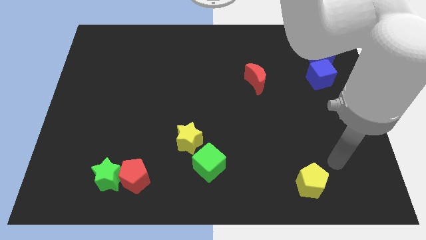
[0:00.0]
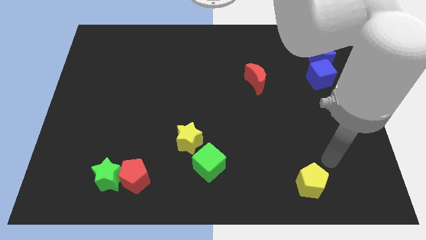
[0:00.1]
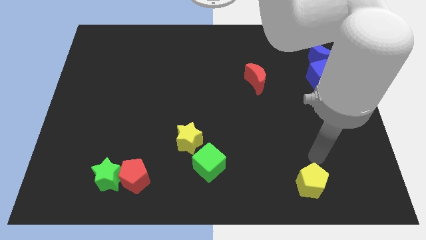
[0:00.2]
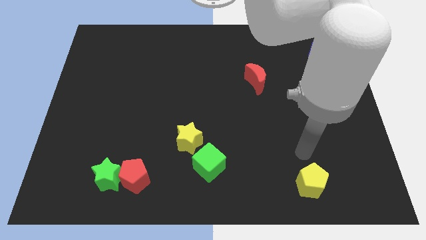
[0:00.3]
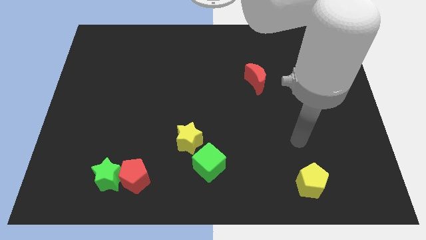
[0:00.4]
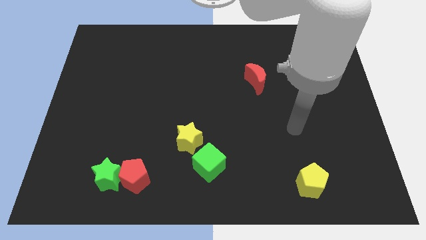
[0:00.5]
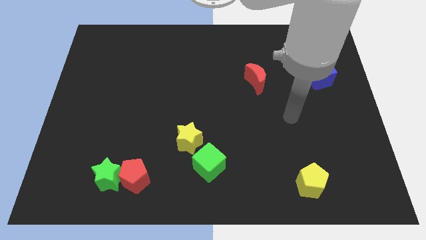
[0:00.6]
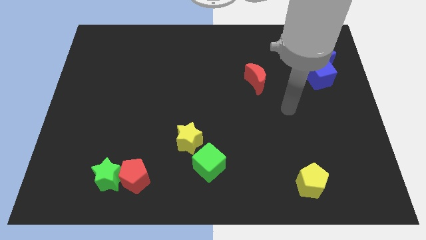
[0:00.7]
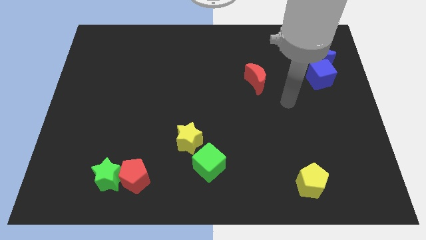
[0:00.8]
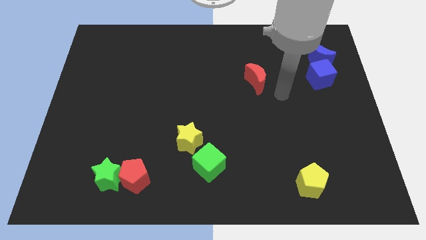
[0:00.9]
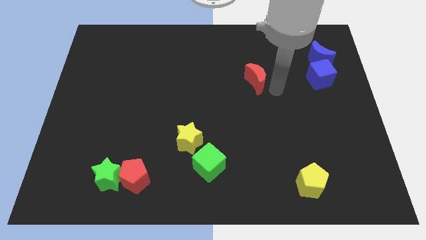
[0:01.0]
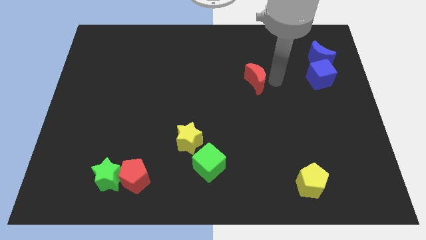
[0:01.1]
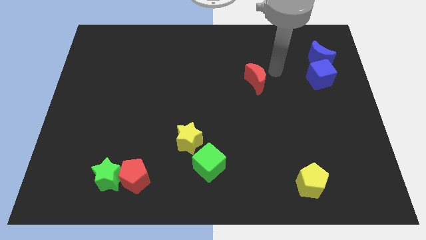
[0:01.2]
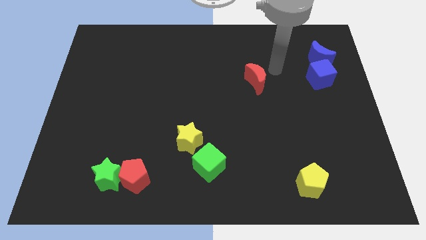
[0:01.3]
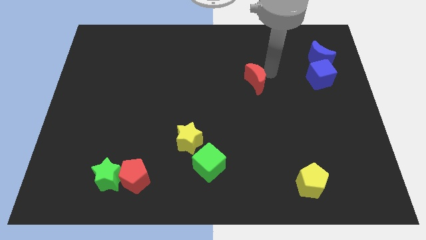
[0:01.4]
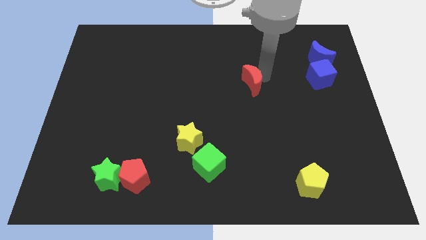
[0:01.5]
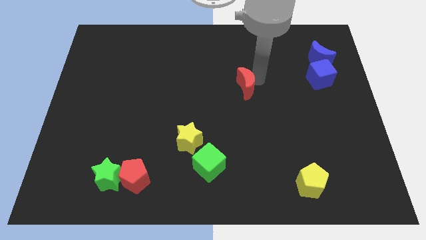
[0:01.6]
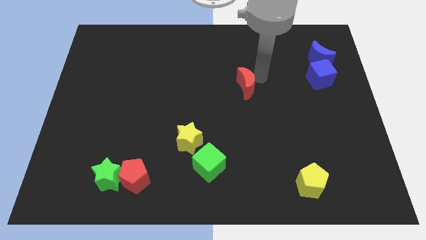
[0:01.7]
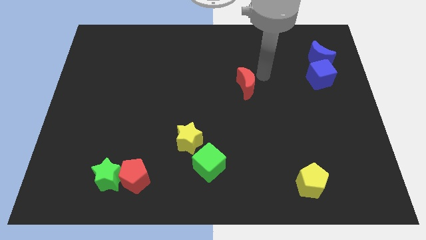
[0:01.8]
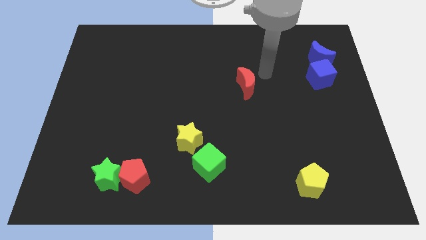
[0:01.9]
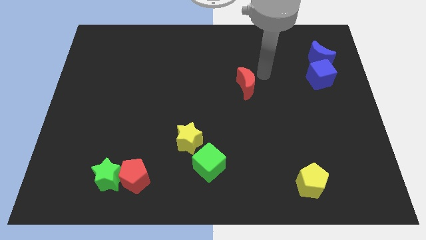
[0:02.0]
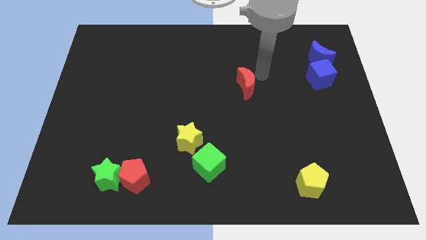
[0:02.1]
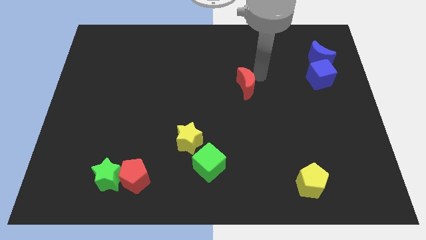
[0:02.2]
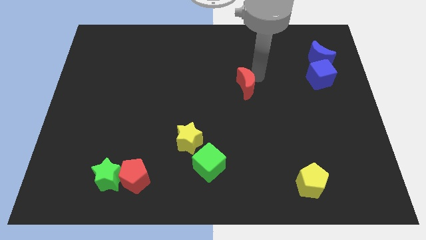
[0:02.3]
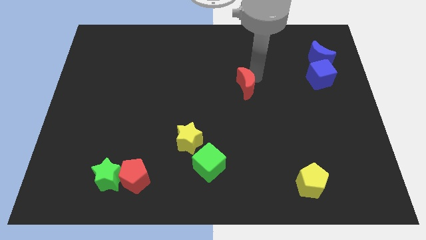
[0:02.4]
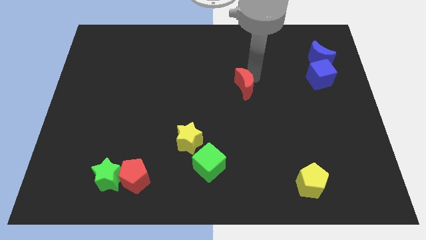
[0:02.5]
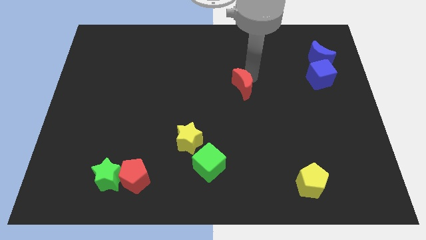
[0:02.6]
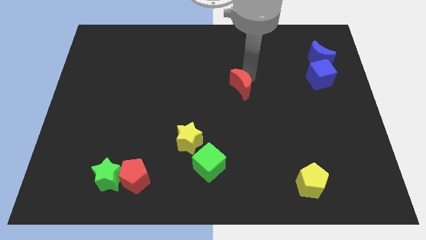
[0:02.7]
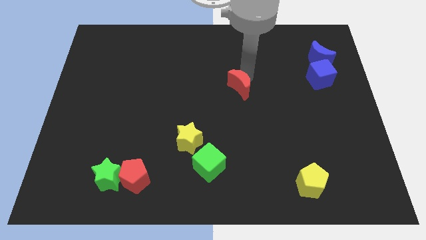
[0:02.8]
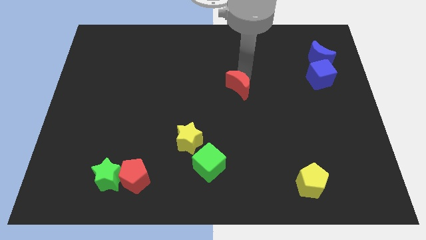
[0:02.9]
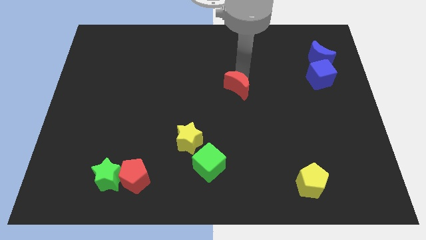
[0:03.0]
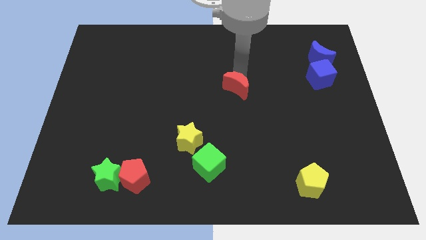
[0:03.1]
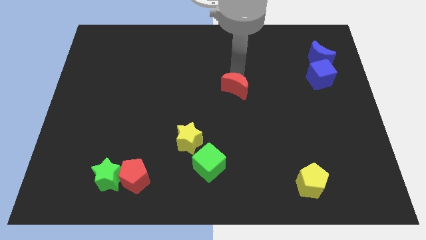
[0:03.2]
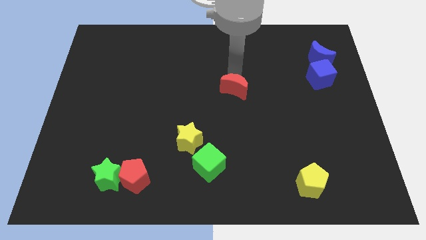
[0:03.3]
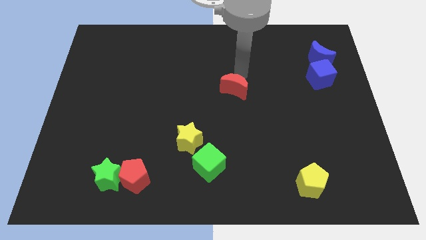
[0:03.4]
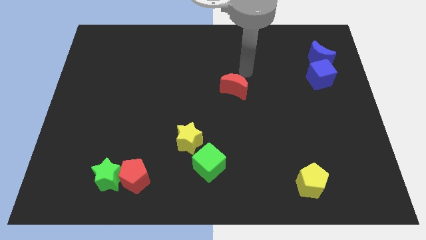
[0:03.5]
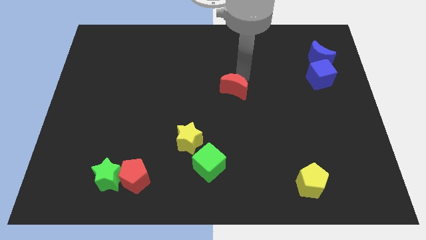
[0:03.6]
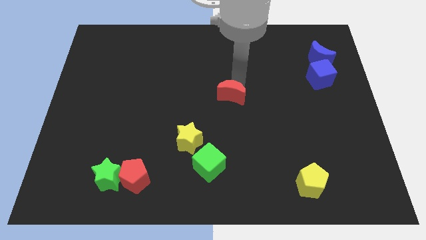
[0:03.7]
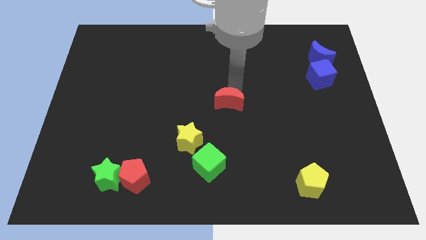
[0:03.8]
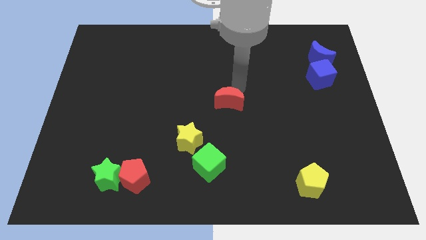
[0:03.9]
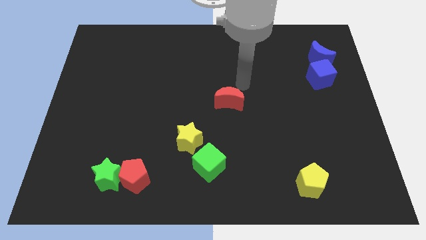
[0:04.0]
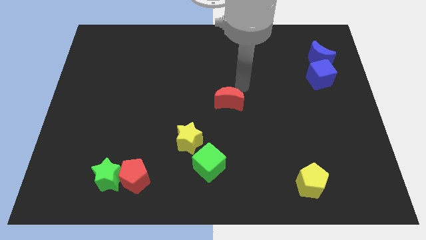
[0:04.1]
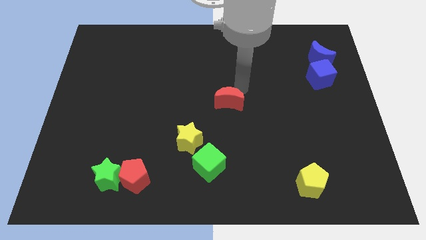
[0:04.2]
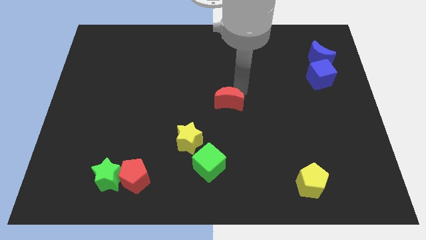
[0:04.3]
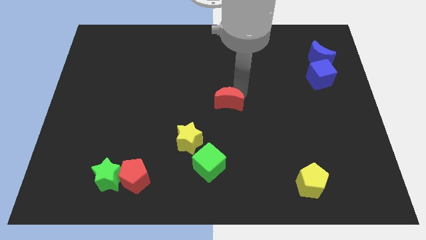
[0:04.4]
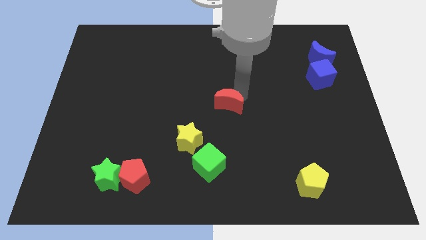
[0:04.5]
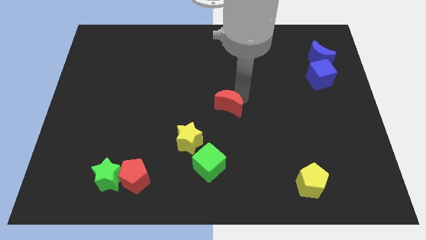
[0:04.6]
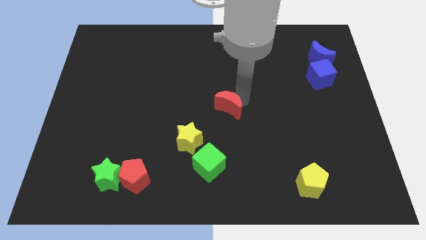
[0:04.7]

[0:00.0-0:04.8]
move the red moon to the top right side of the yellow star

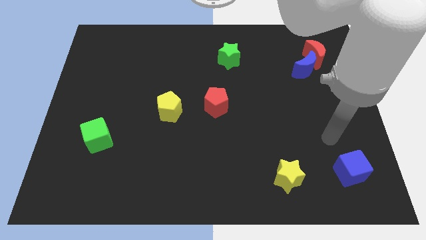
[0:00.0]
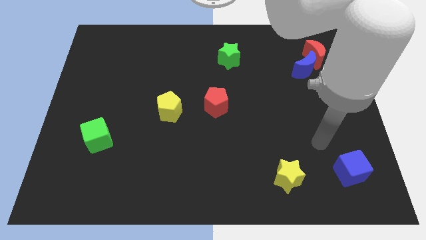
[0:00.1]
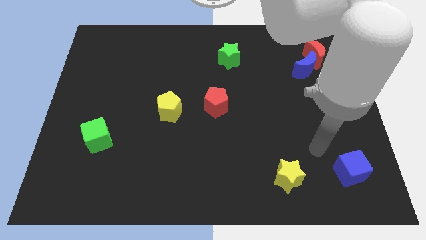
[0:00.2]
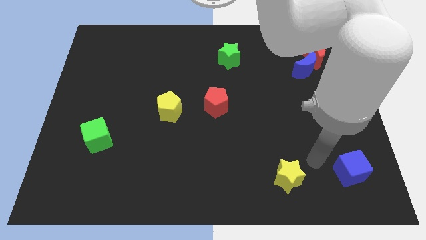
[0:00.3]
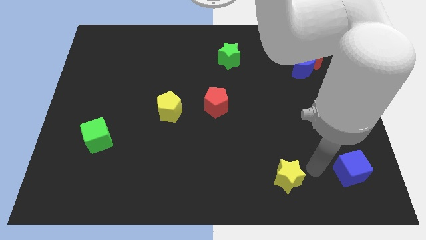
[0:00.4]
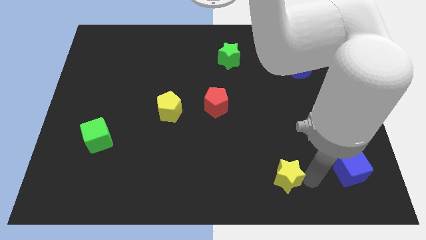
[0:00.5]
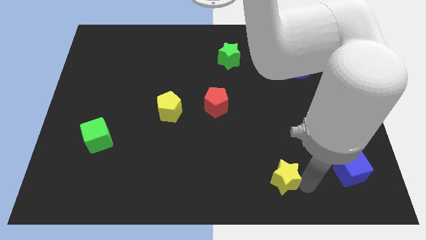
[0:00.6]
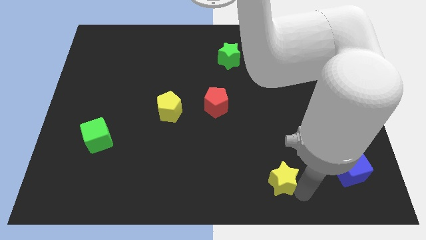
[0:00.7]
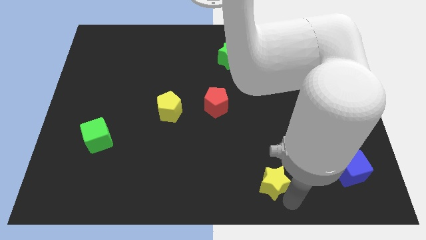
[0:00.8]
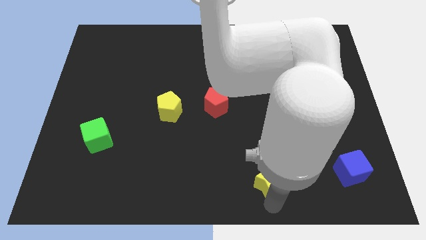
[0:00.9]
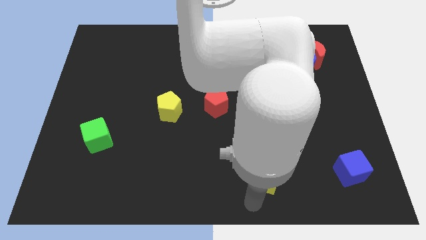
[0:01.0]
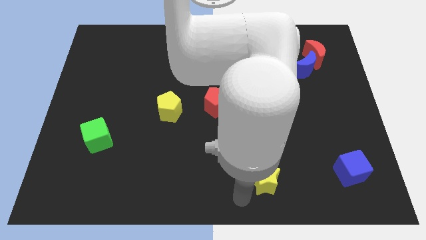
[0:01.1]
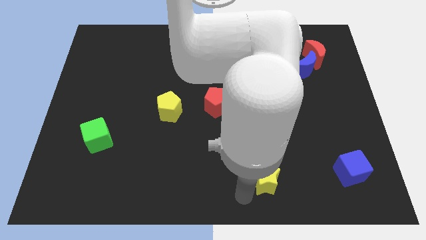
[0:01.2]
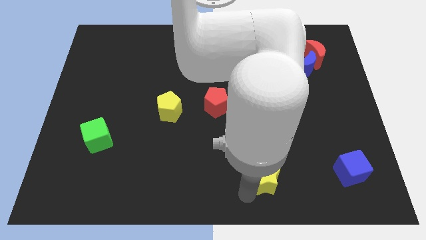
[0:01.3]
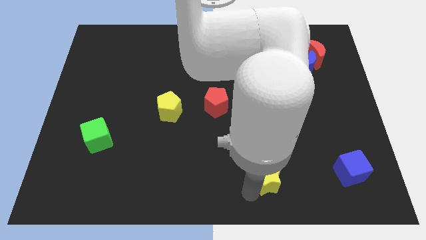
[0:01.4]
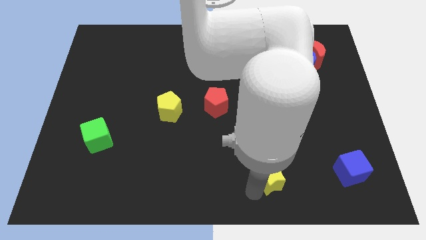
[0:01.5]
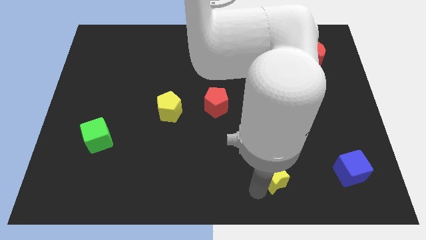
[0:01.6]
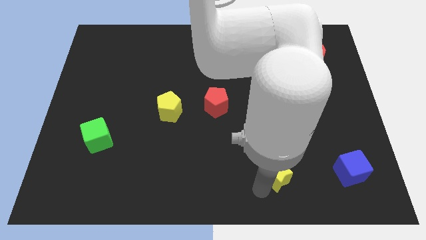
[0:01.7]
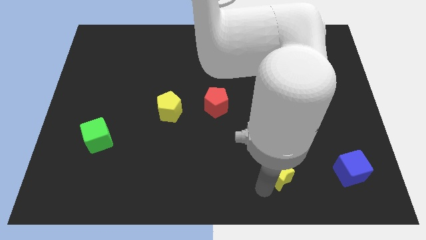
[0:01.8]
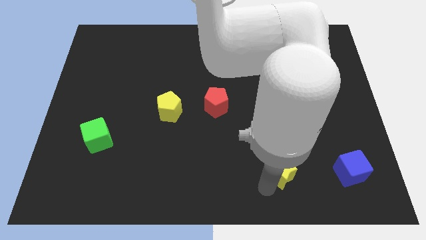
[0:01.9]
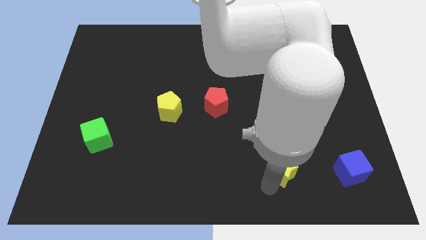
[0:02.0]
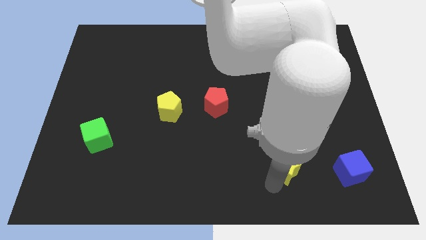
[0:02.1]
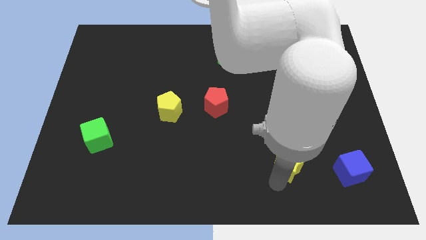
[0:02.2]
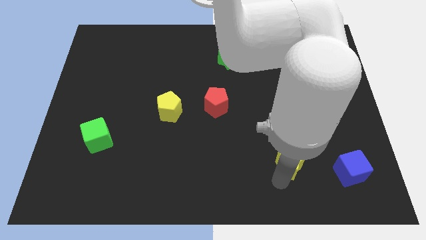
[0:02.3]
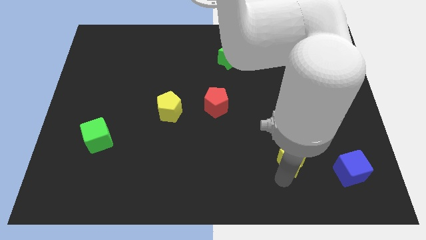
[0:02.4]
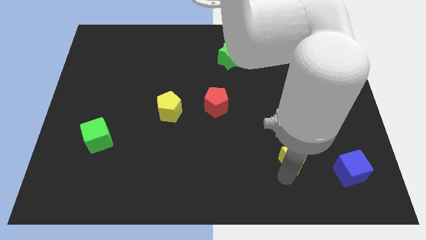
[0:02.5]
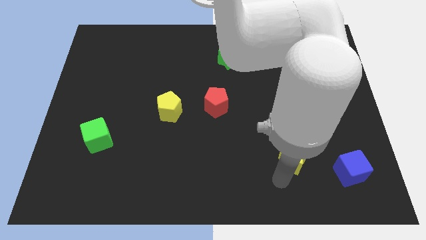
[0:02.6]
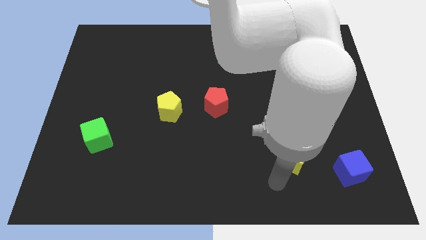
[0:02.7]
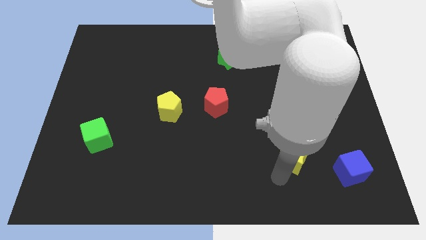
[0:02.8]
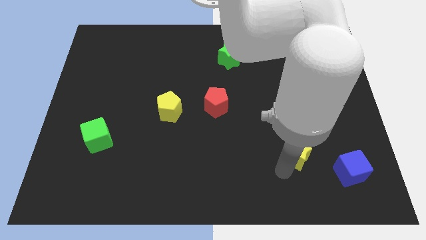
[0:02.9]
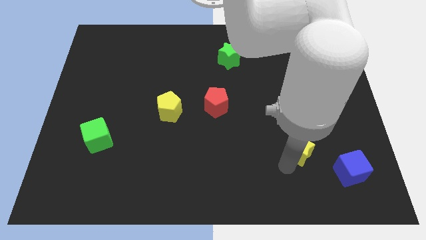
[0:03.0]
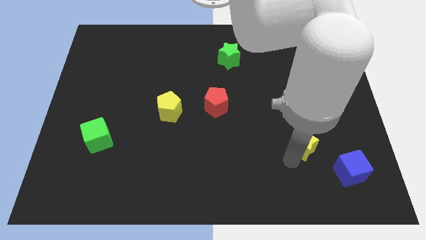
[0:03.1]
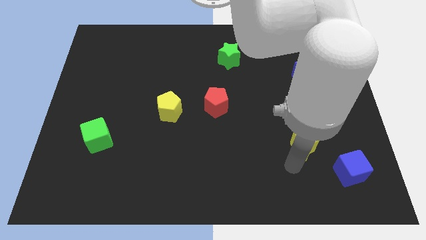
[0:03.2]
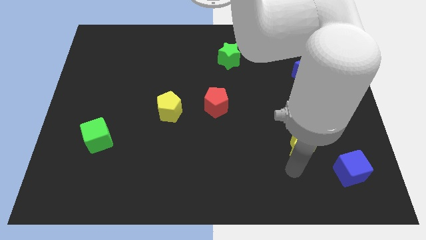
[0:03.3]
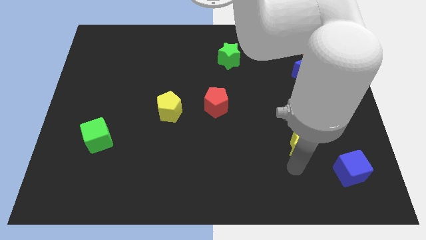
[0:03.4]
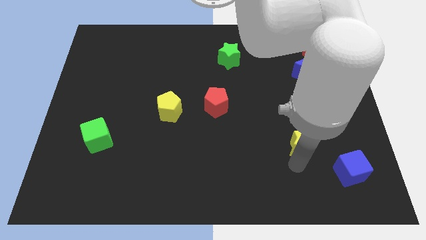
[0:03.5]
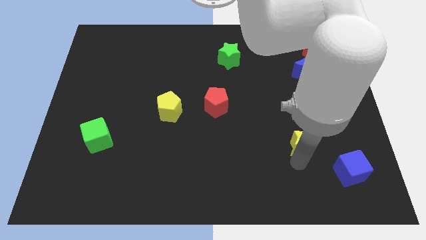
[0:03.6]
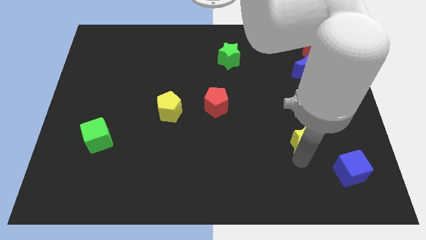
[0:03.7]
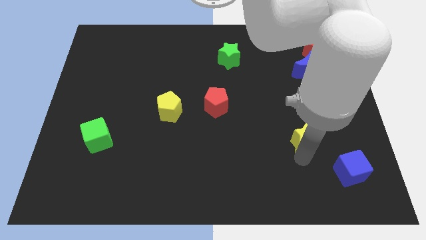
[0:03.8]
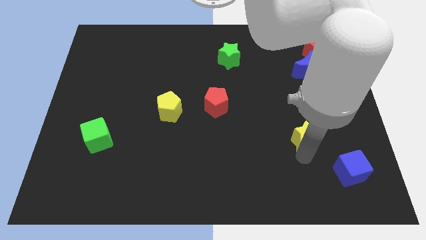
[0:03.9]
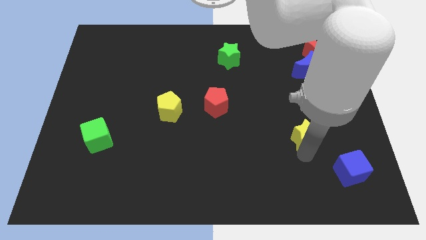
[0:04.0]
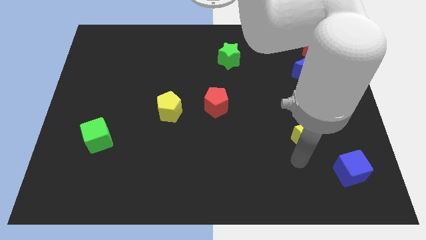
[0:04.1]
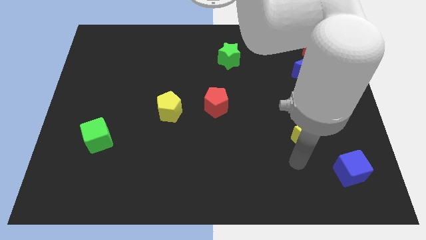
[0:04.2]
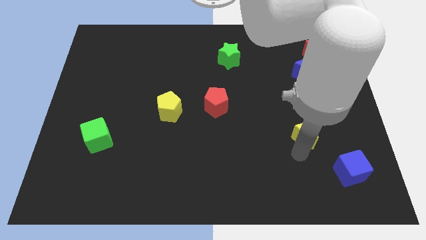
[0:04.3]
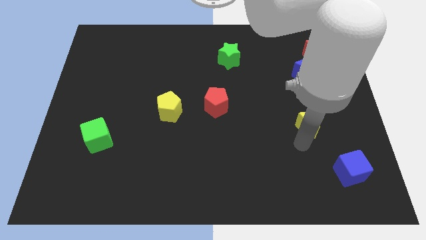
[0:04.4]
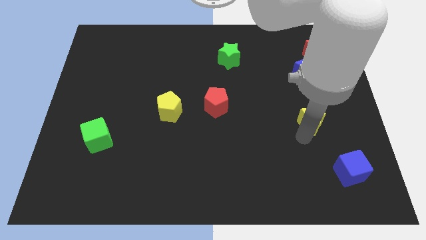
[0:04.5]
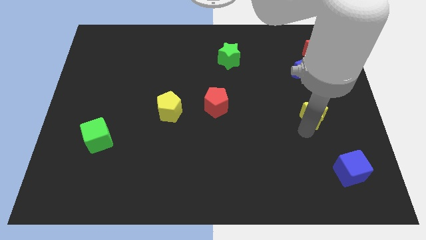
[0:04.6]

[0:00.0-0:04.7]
move the yellow star to the bottom of the blue moon
